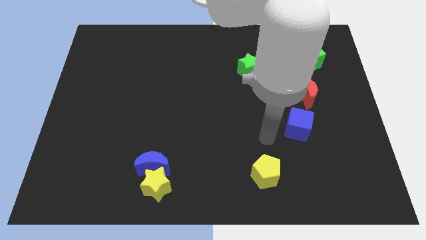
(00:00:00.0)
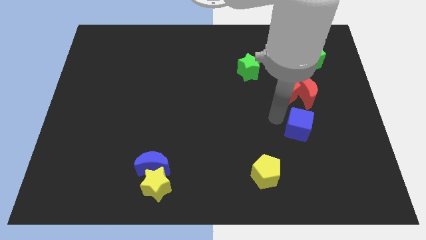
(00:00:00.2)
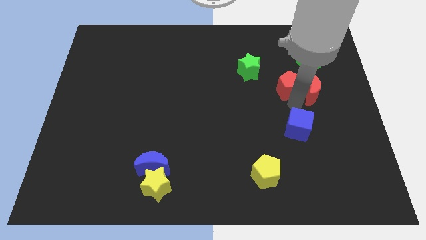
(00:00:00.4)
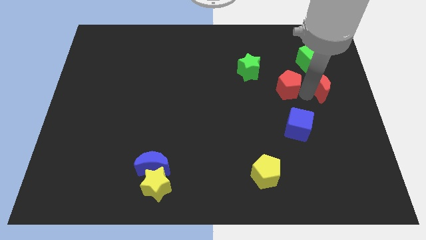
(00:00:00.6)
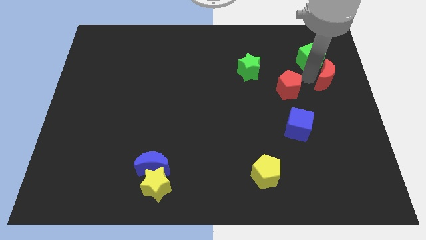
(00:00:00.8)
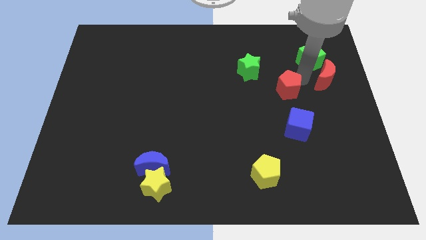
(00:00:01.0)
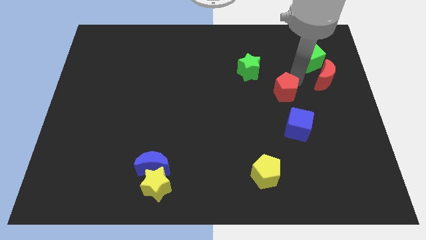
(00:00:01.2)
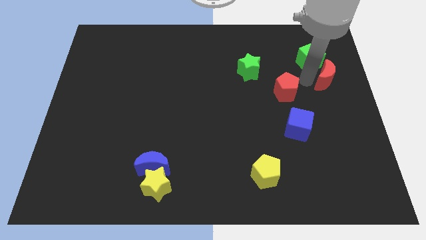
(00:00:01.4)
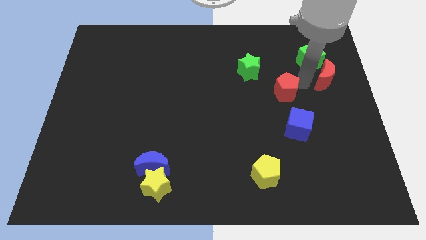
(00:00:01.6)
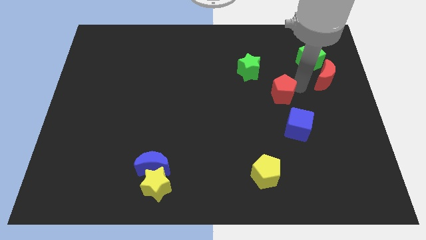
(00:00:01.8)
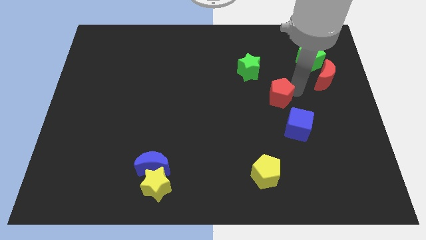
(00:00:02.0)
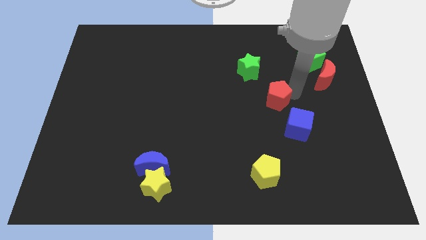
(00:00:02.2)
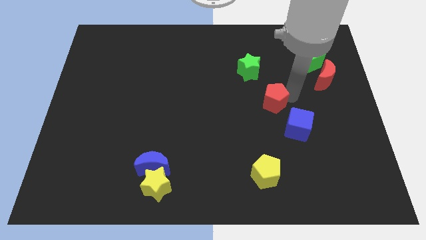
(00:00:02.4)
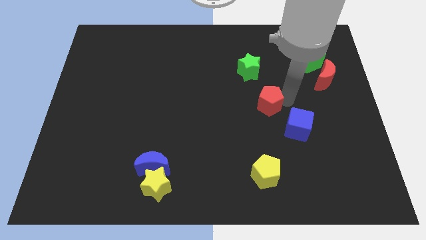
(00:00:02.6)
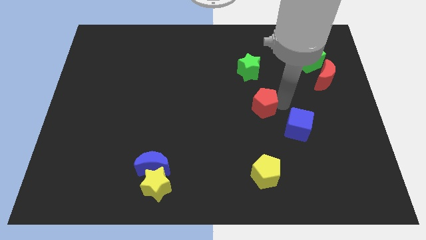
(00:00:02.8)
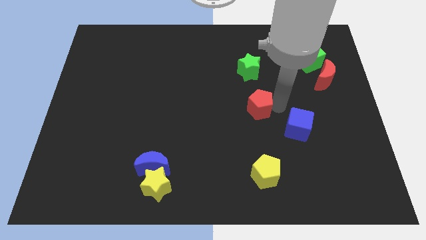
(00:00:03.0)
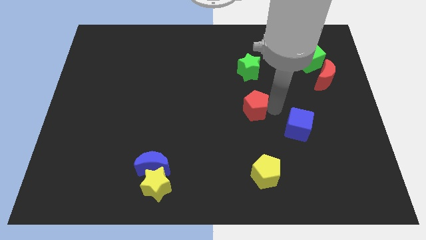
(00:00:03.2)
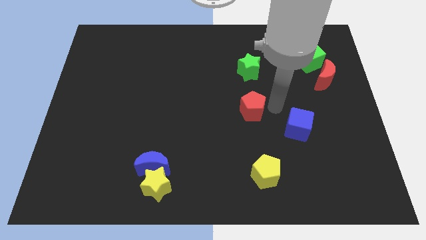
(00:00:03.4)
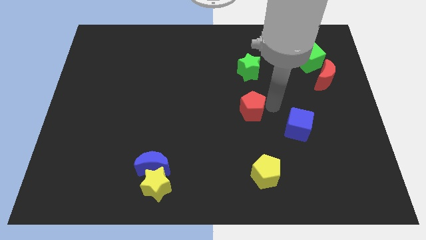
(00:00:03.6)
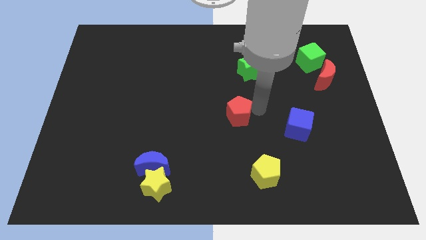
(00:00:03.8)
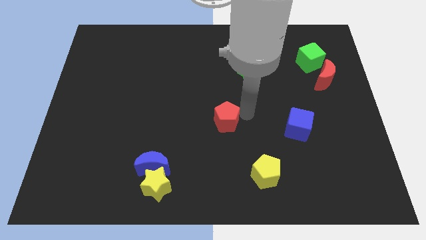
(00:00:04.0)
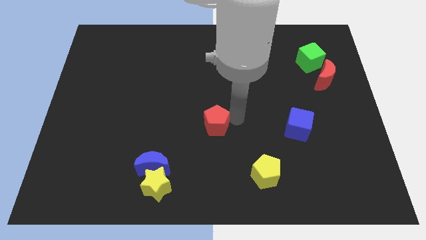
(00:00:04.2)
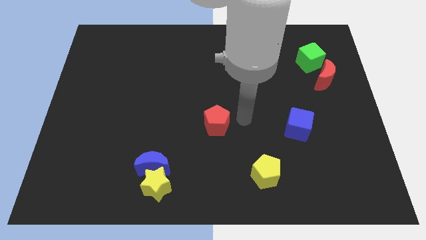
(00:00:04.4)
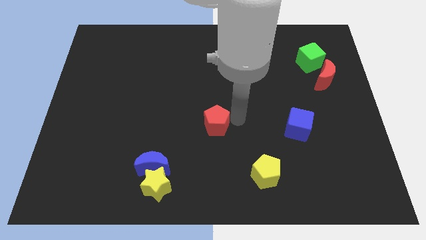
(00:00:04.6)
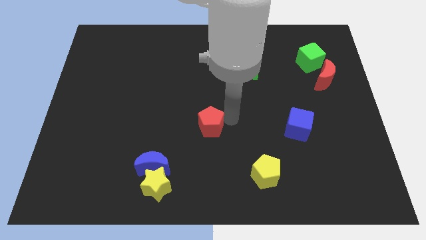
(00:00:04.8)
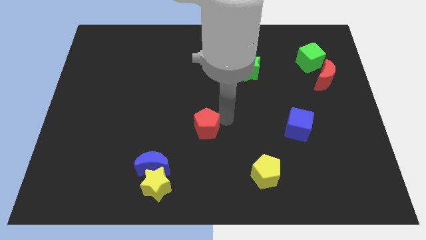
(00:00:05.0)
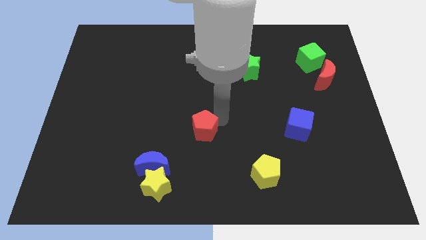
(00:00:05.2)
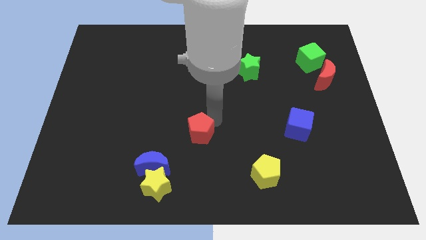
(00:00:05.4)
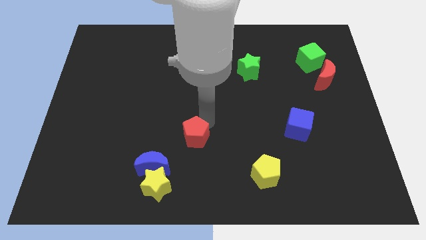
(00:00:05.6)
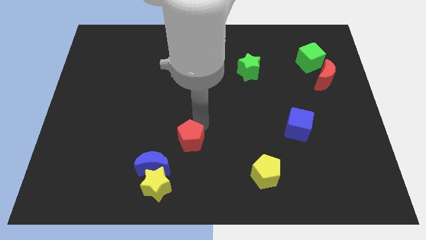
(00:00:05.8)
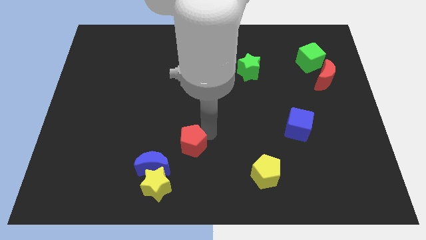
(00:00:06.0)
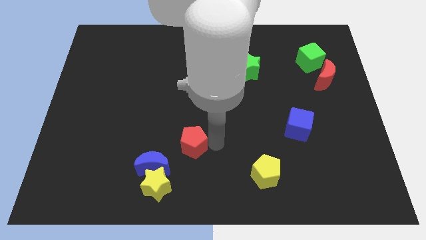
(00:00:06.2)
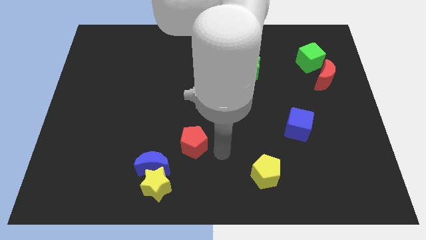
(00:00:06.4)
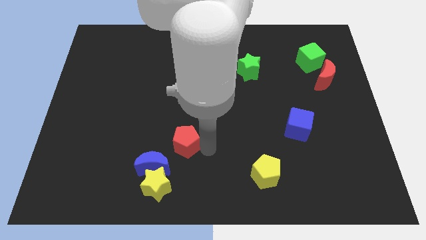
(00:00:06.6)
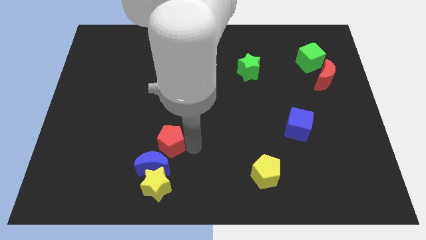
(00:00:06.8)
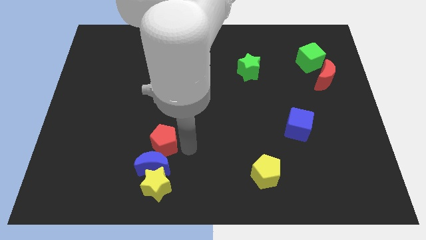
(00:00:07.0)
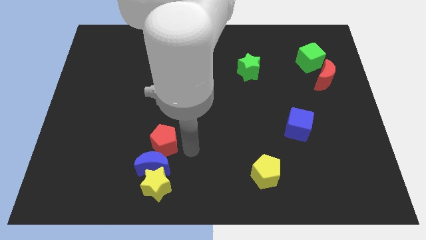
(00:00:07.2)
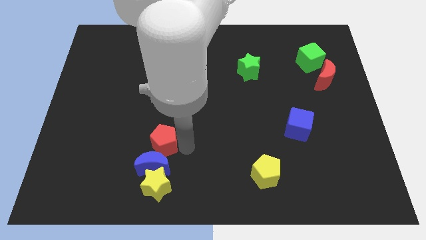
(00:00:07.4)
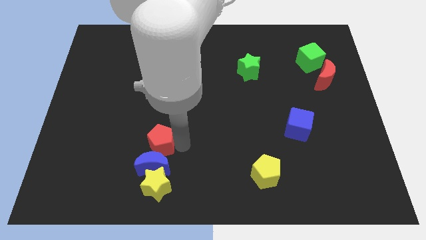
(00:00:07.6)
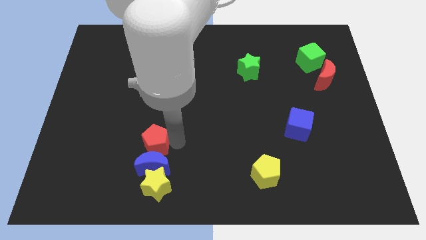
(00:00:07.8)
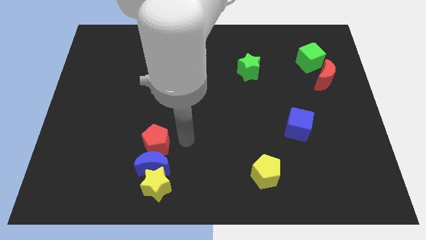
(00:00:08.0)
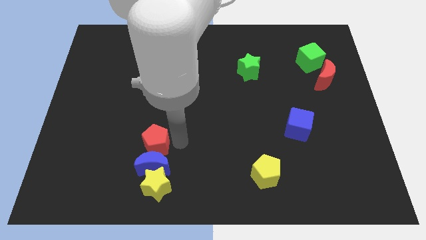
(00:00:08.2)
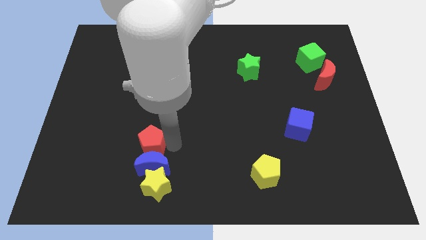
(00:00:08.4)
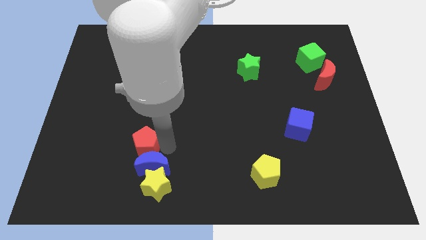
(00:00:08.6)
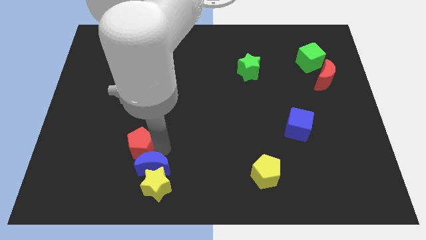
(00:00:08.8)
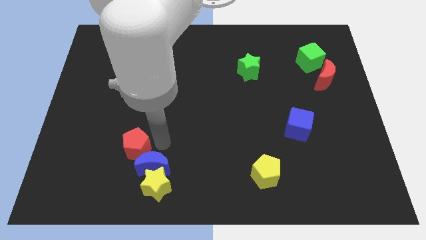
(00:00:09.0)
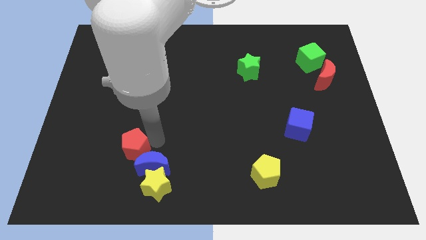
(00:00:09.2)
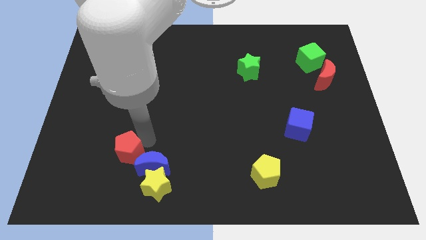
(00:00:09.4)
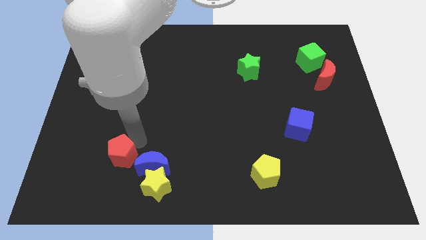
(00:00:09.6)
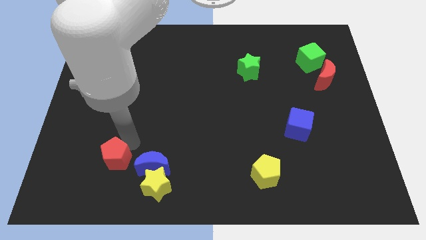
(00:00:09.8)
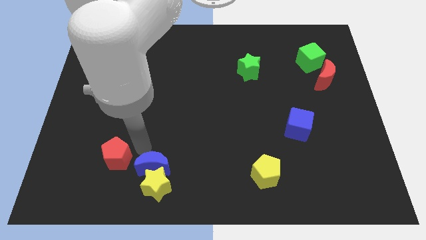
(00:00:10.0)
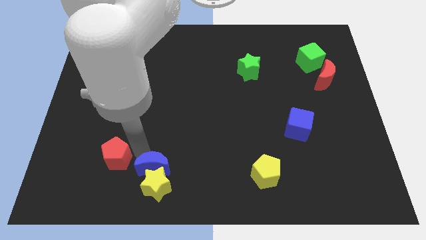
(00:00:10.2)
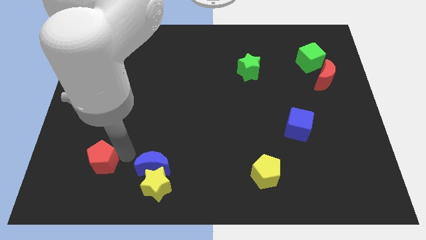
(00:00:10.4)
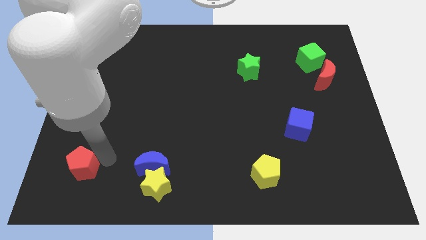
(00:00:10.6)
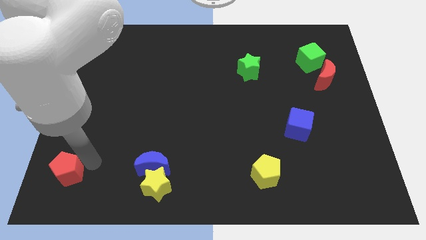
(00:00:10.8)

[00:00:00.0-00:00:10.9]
push the red pentagon to the bottom left of the board
